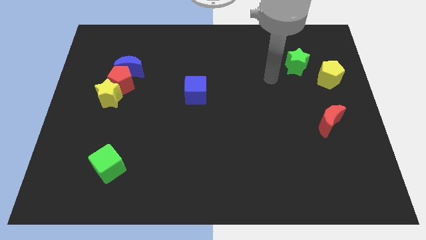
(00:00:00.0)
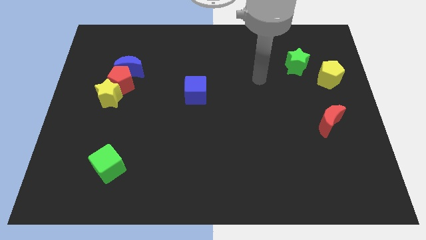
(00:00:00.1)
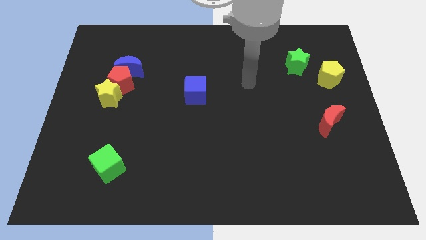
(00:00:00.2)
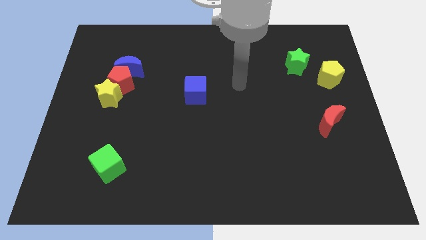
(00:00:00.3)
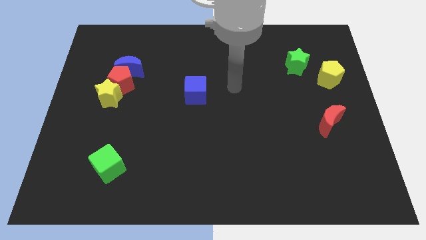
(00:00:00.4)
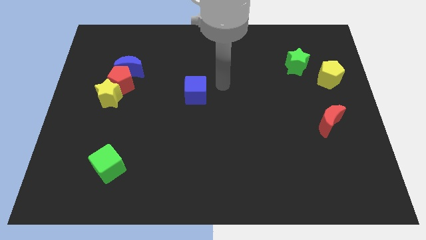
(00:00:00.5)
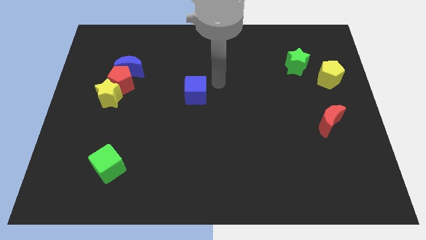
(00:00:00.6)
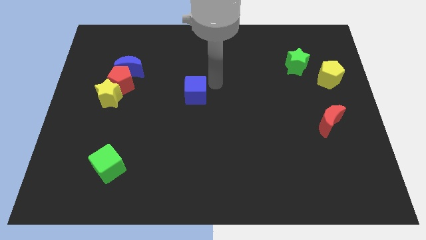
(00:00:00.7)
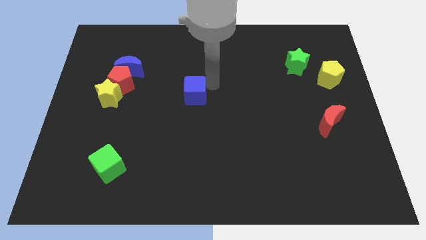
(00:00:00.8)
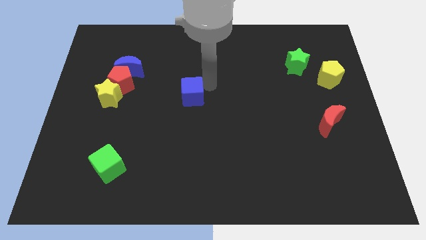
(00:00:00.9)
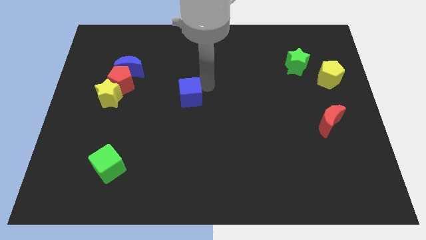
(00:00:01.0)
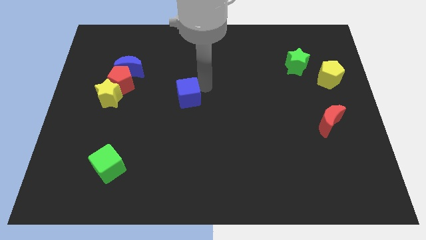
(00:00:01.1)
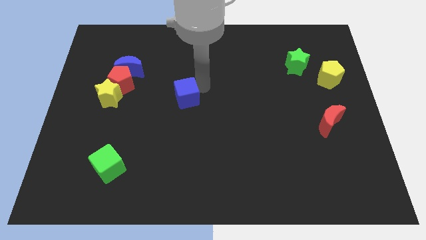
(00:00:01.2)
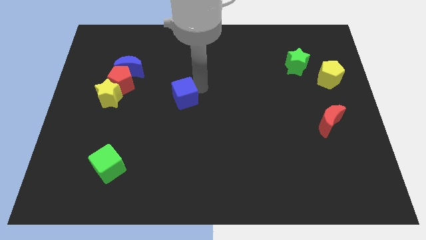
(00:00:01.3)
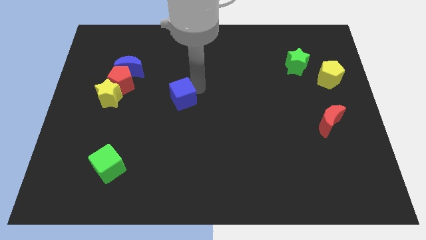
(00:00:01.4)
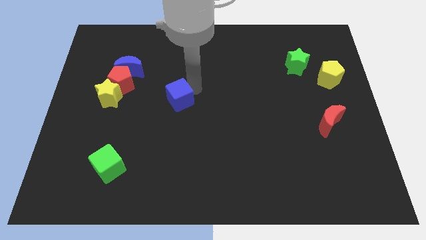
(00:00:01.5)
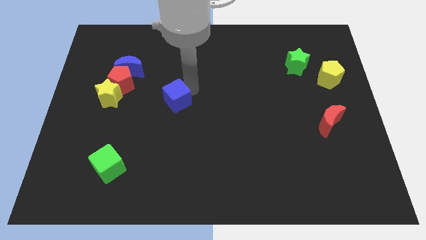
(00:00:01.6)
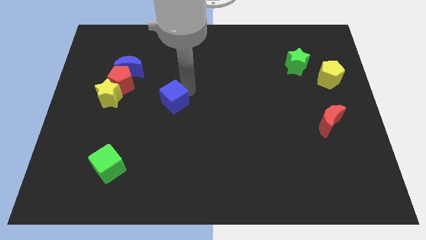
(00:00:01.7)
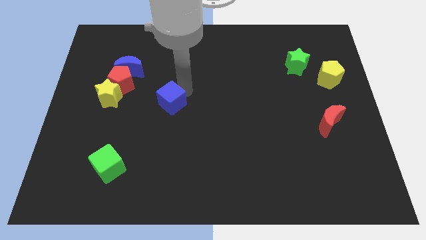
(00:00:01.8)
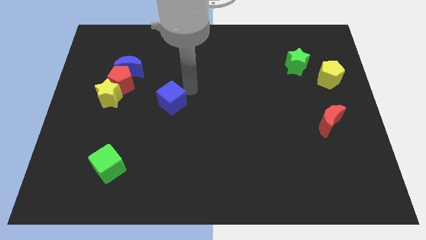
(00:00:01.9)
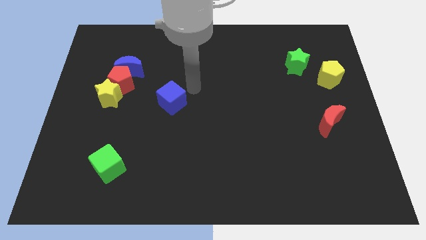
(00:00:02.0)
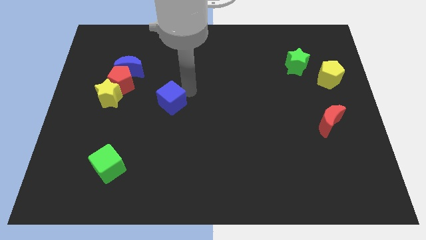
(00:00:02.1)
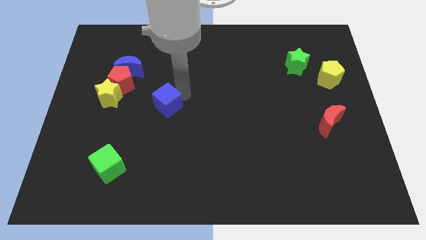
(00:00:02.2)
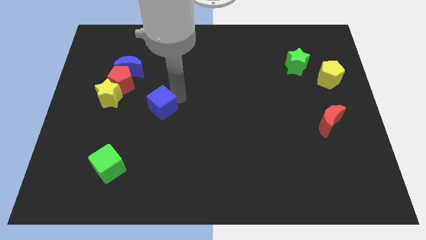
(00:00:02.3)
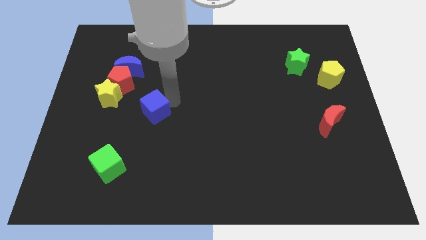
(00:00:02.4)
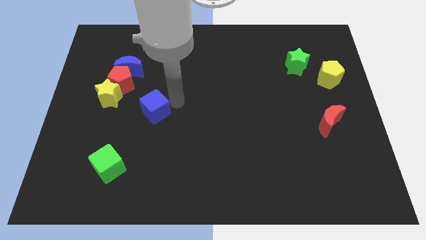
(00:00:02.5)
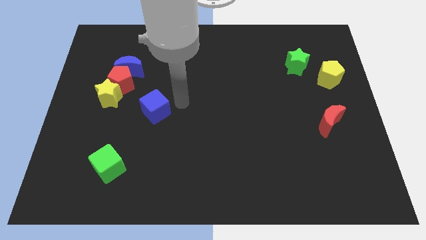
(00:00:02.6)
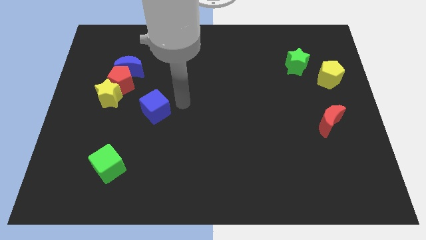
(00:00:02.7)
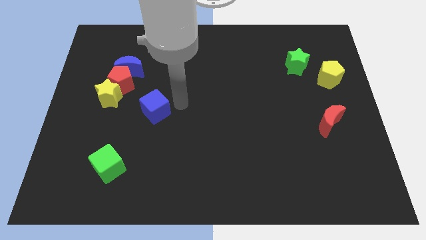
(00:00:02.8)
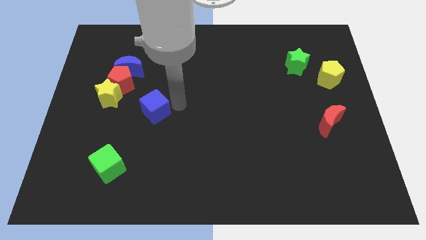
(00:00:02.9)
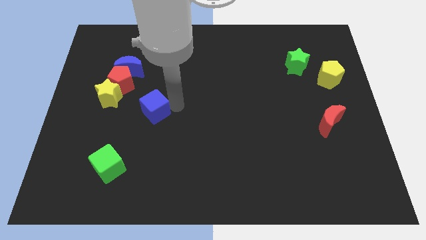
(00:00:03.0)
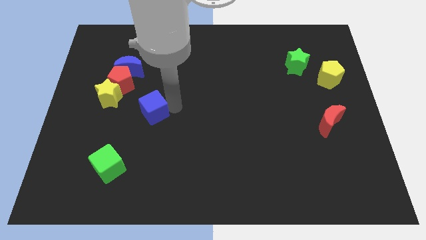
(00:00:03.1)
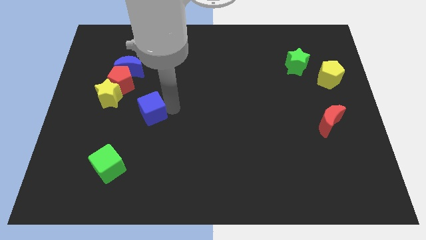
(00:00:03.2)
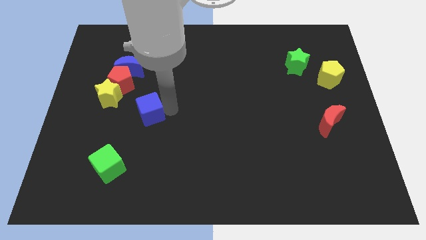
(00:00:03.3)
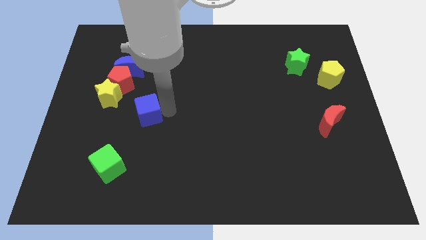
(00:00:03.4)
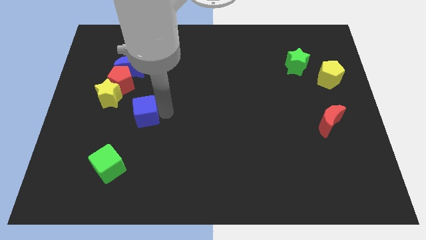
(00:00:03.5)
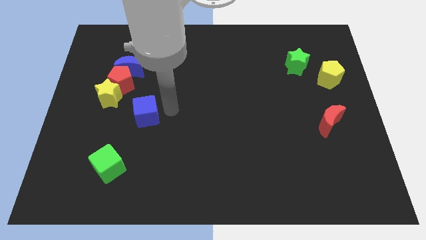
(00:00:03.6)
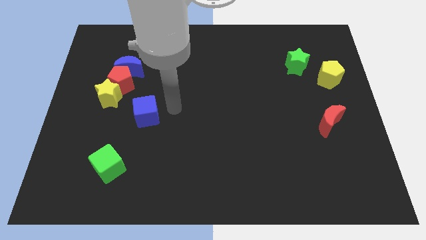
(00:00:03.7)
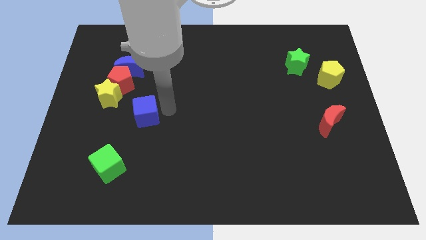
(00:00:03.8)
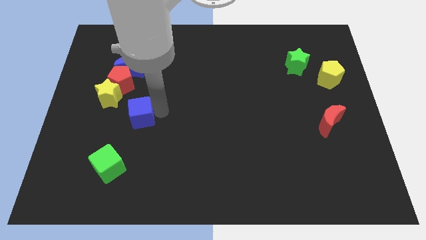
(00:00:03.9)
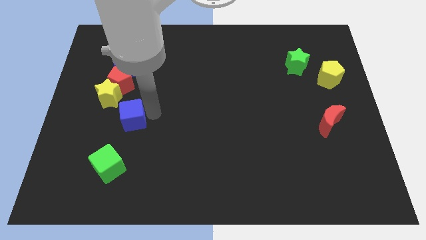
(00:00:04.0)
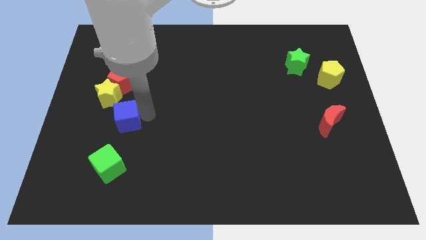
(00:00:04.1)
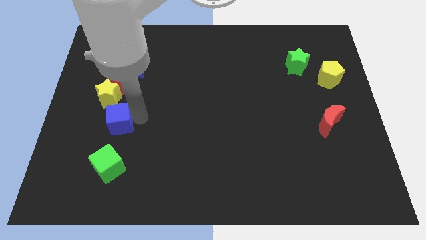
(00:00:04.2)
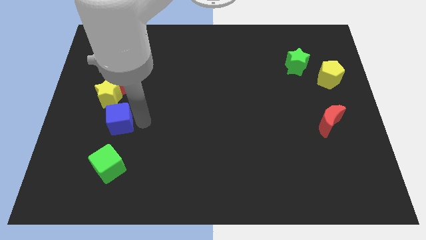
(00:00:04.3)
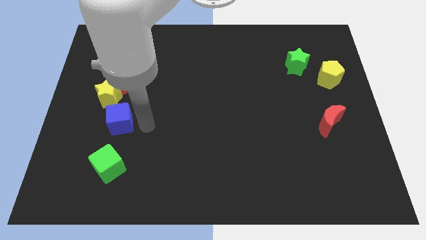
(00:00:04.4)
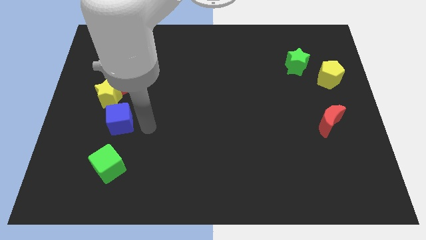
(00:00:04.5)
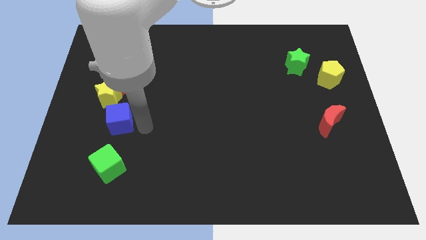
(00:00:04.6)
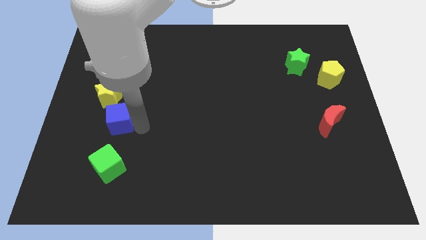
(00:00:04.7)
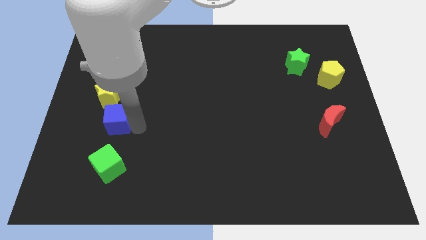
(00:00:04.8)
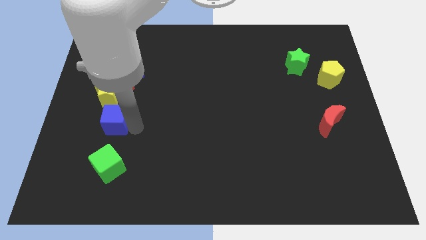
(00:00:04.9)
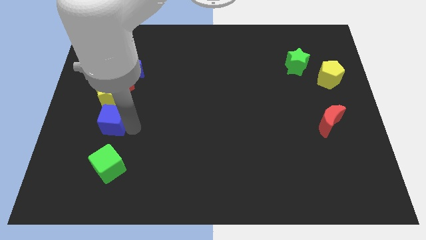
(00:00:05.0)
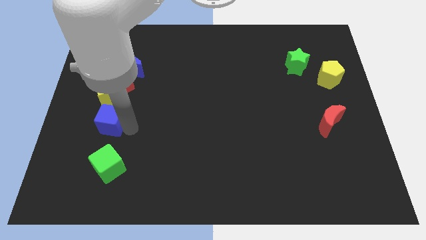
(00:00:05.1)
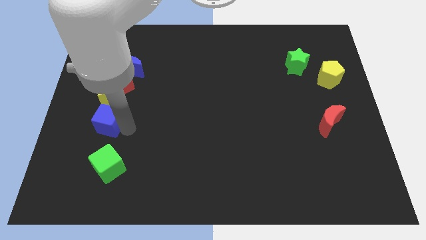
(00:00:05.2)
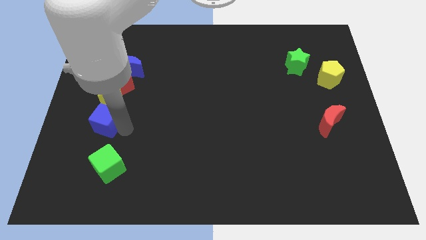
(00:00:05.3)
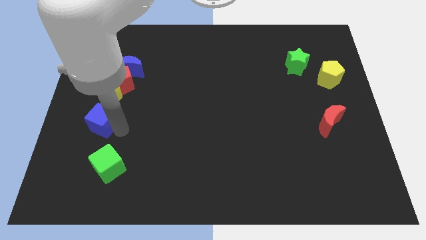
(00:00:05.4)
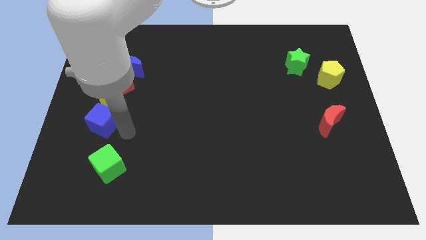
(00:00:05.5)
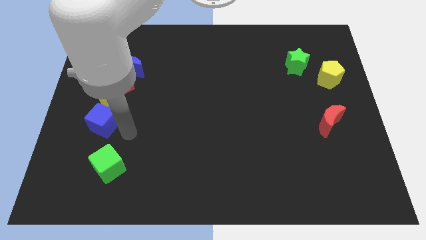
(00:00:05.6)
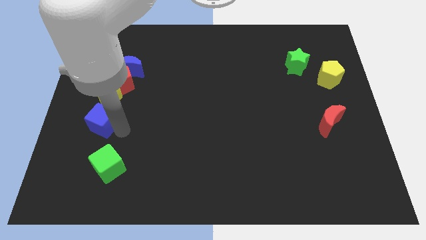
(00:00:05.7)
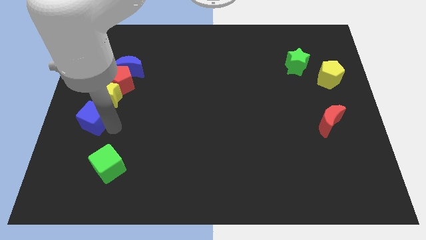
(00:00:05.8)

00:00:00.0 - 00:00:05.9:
push the blue cube to the left side
